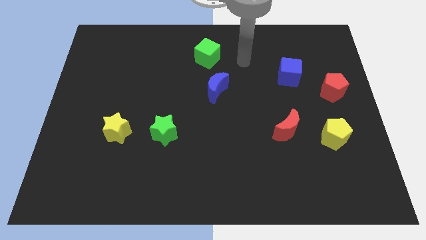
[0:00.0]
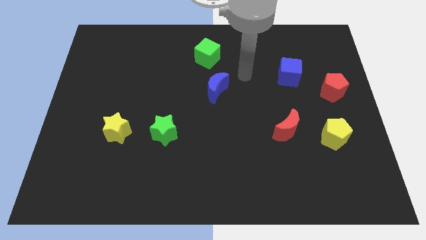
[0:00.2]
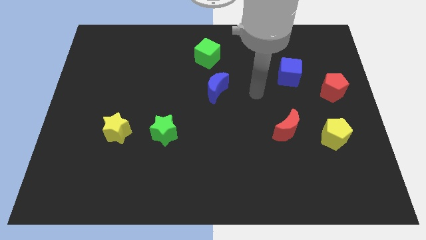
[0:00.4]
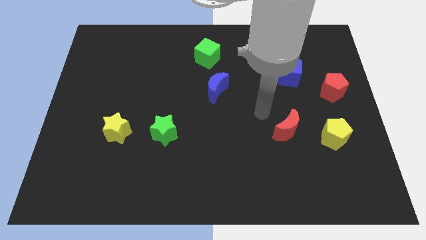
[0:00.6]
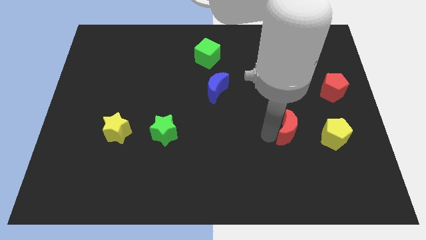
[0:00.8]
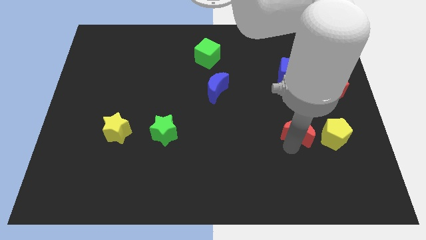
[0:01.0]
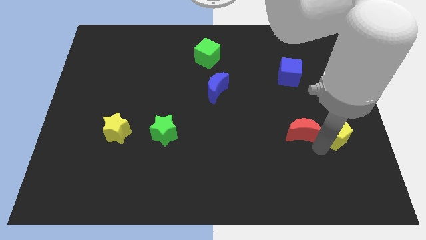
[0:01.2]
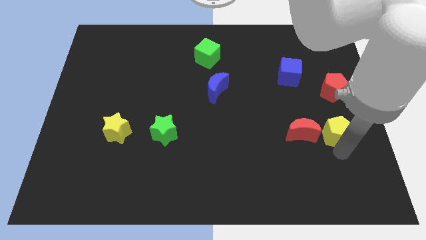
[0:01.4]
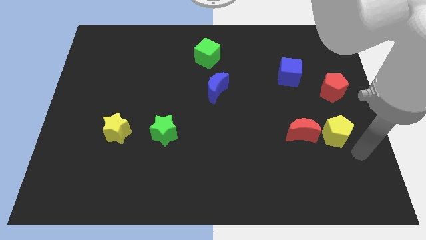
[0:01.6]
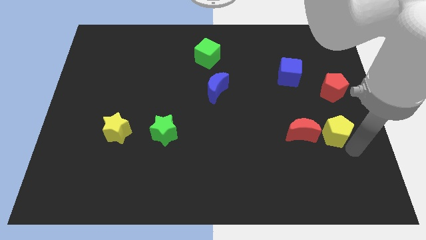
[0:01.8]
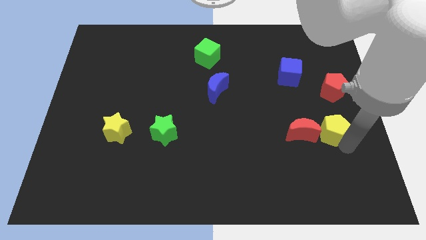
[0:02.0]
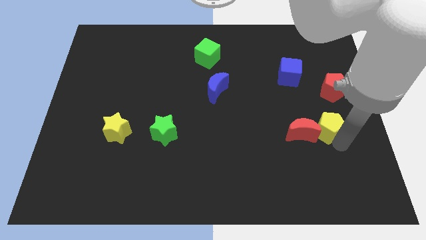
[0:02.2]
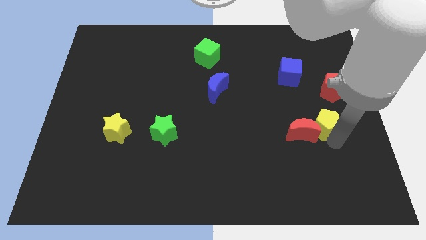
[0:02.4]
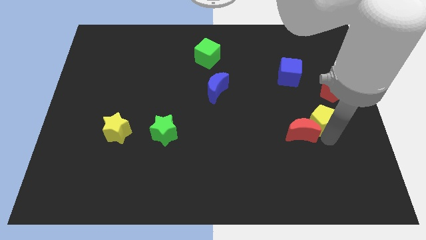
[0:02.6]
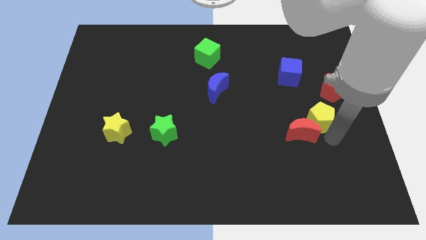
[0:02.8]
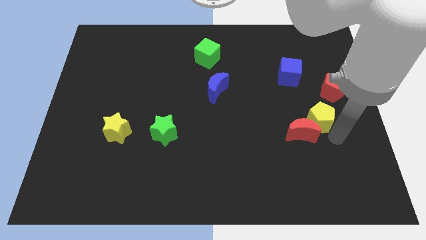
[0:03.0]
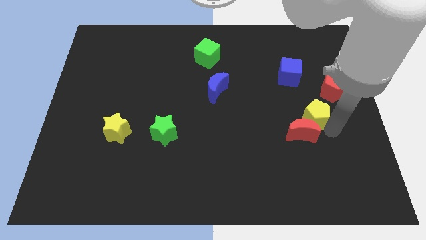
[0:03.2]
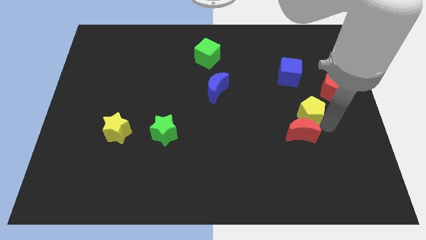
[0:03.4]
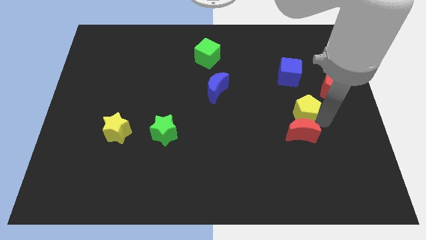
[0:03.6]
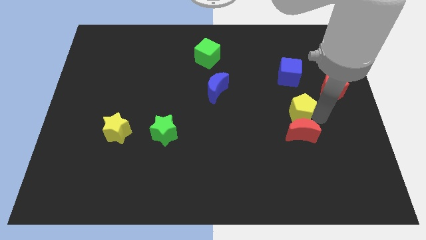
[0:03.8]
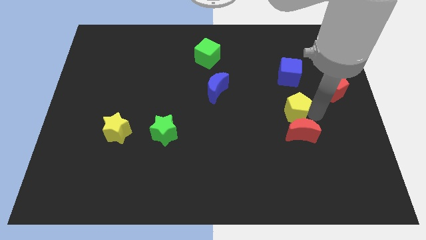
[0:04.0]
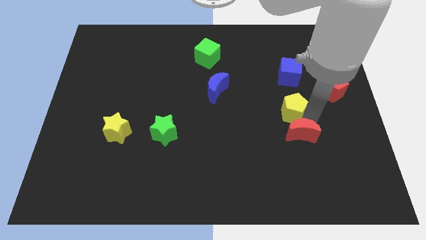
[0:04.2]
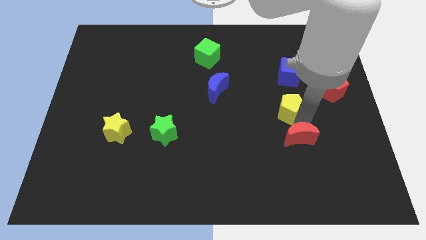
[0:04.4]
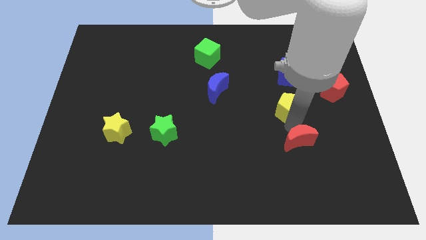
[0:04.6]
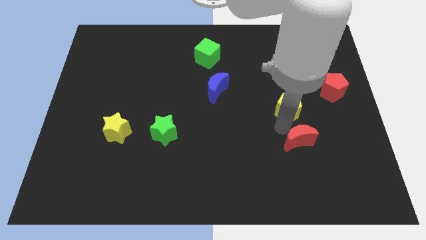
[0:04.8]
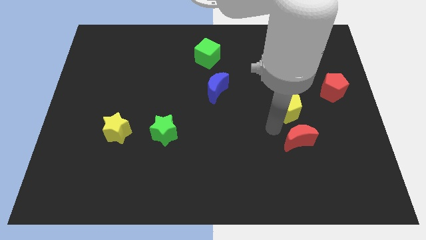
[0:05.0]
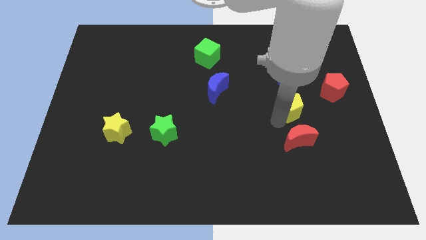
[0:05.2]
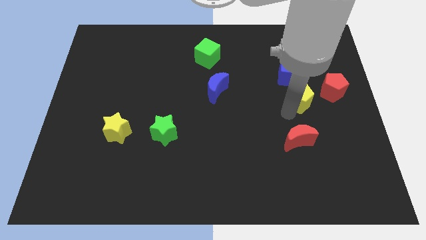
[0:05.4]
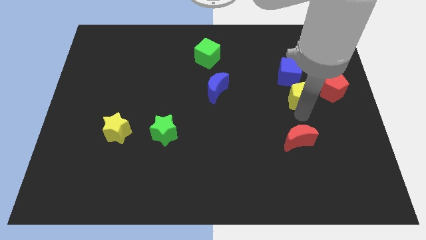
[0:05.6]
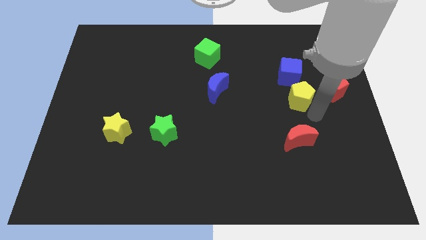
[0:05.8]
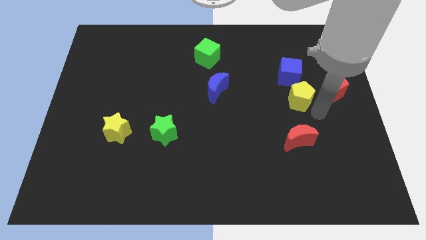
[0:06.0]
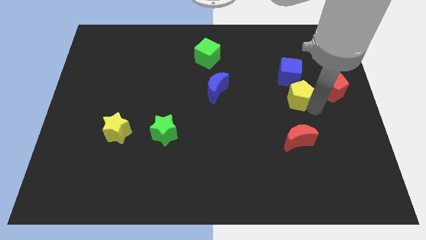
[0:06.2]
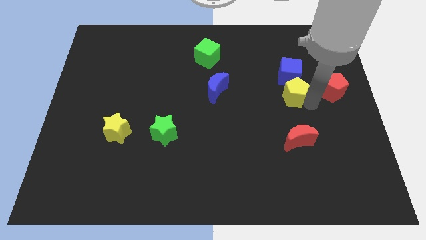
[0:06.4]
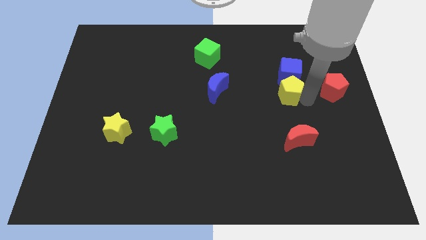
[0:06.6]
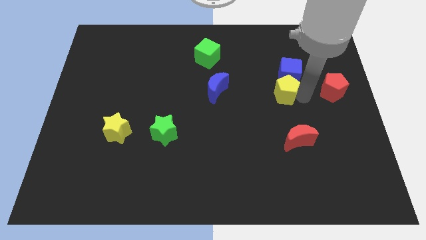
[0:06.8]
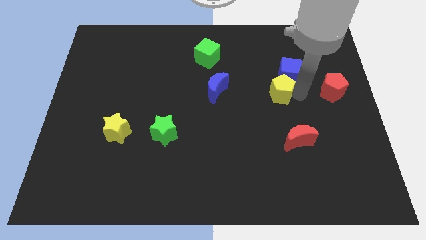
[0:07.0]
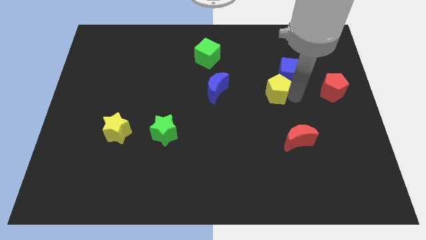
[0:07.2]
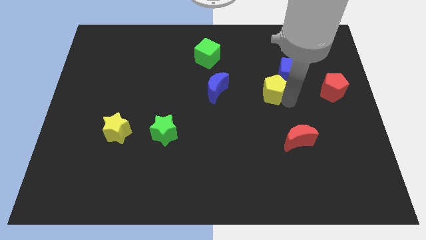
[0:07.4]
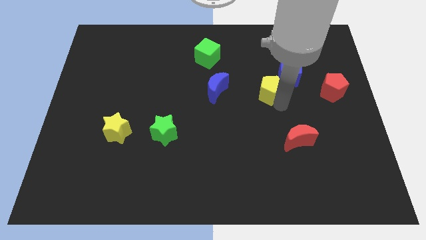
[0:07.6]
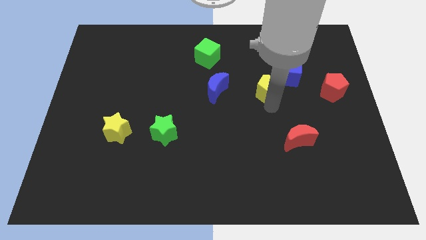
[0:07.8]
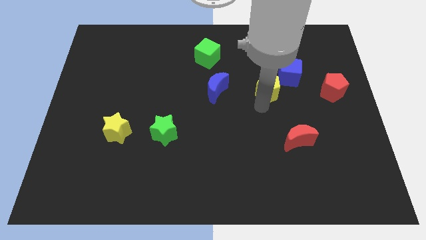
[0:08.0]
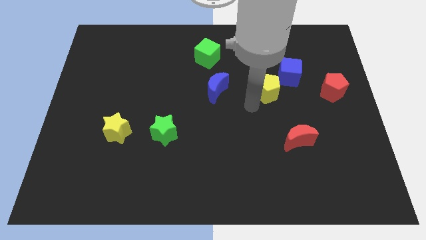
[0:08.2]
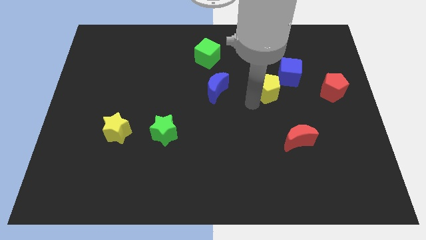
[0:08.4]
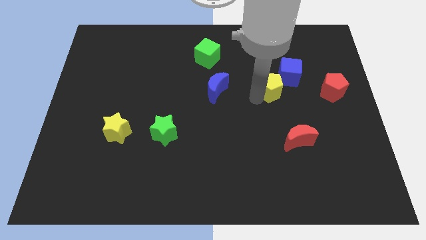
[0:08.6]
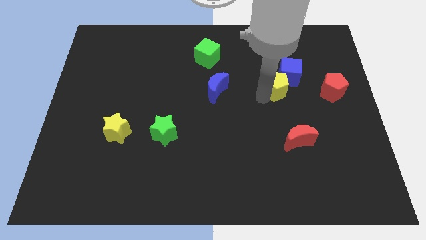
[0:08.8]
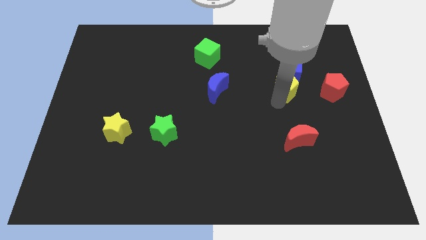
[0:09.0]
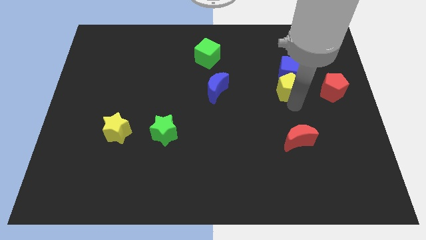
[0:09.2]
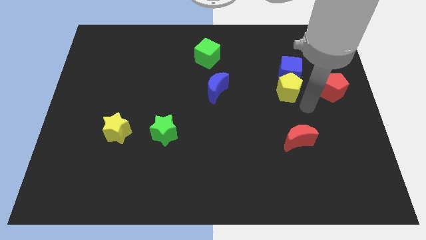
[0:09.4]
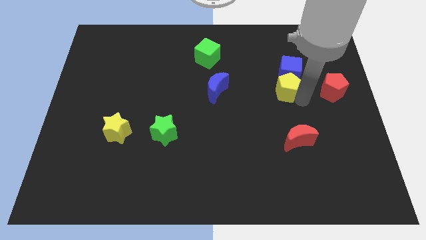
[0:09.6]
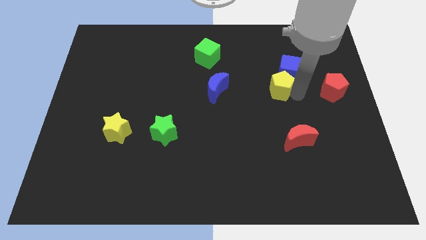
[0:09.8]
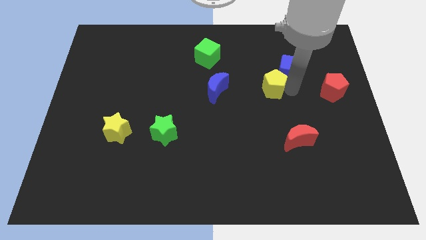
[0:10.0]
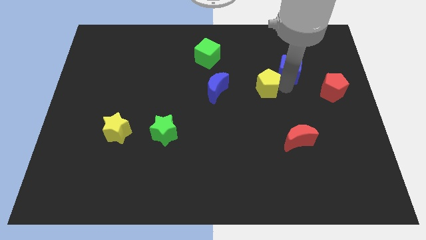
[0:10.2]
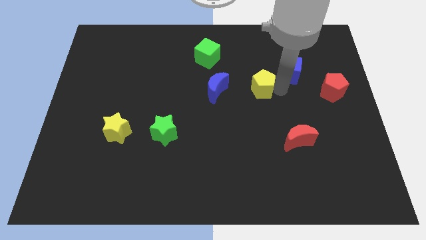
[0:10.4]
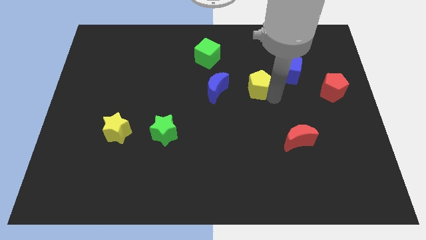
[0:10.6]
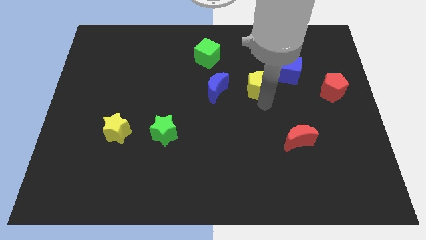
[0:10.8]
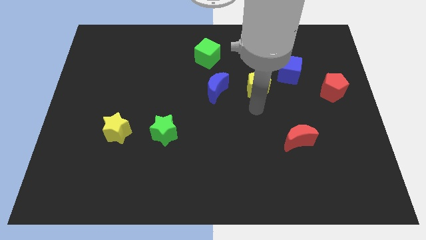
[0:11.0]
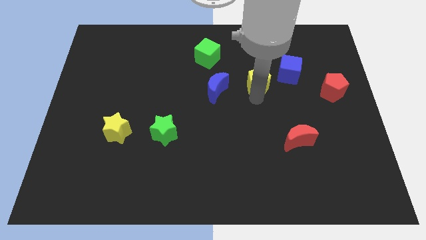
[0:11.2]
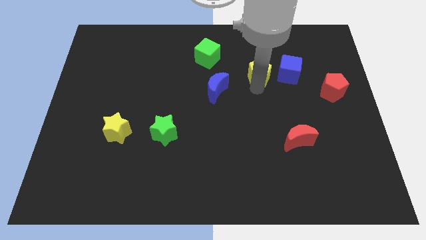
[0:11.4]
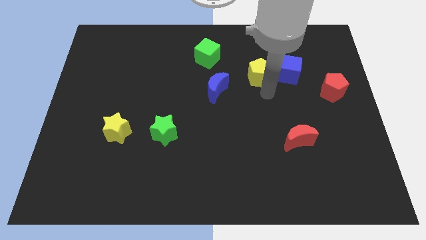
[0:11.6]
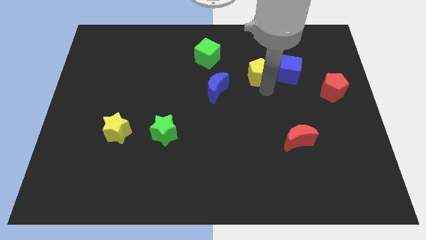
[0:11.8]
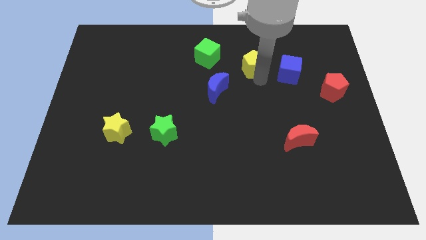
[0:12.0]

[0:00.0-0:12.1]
push the yellow pentagon to the right of the green cube
